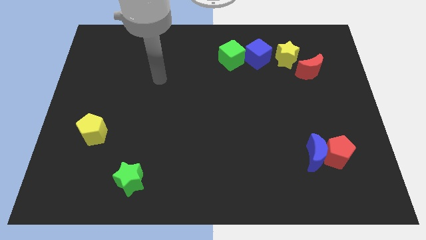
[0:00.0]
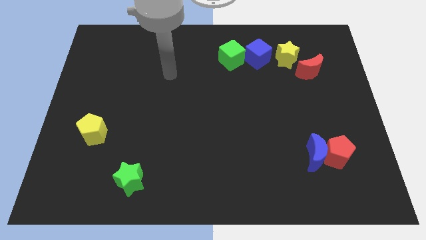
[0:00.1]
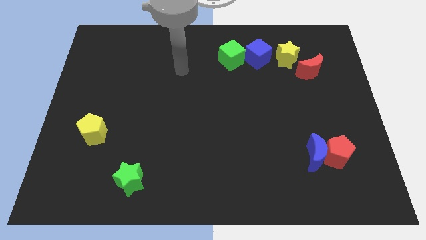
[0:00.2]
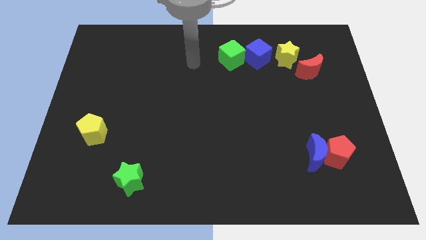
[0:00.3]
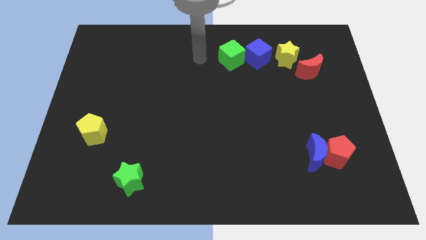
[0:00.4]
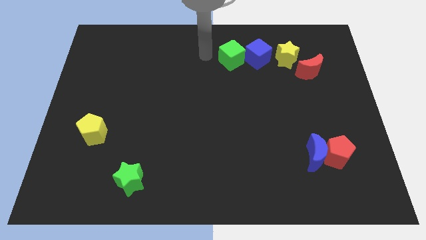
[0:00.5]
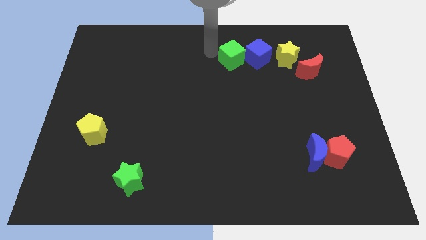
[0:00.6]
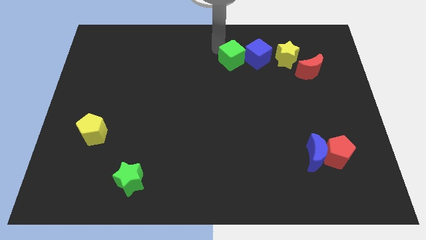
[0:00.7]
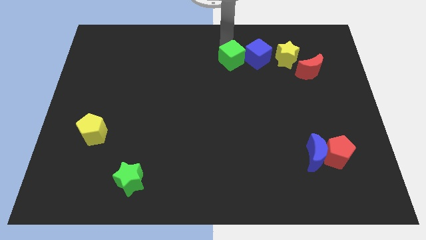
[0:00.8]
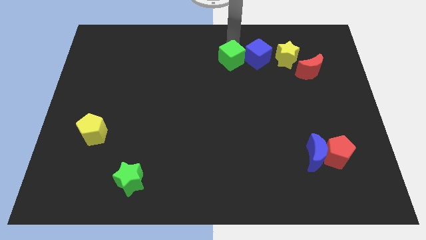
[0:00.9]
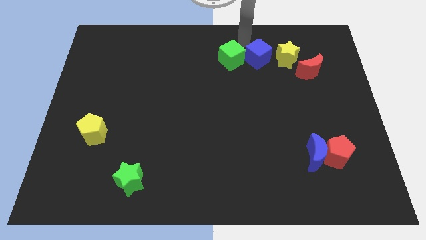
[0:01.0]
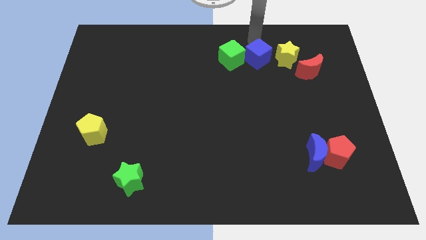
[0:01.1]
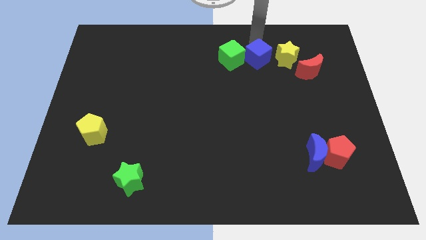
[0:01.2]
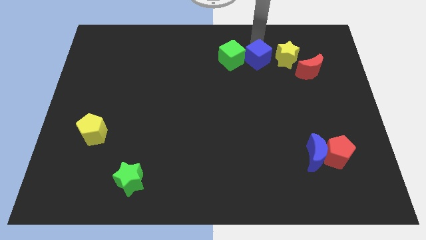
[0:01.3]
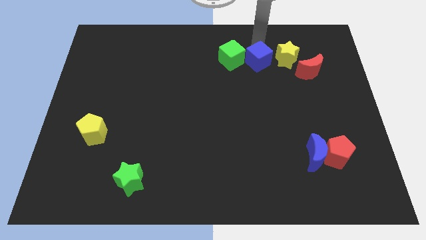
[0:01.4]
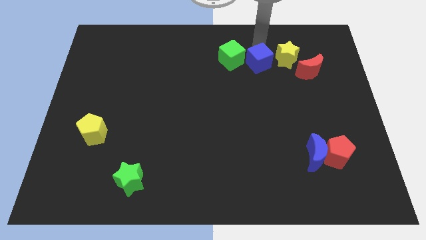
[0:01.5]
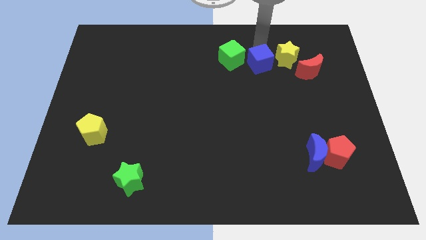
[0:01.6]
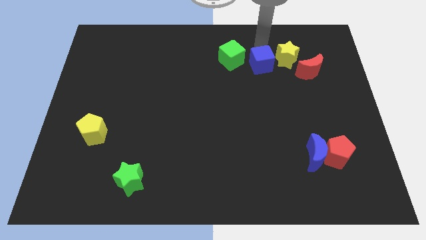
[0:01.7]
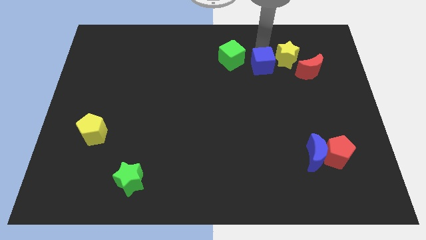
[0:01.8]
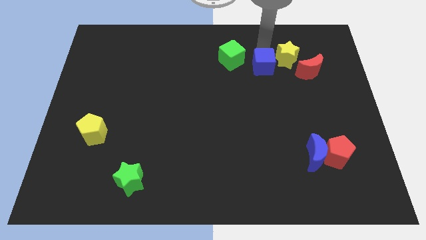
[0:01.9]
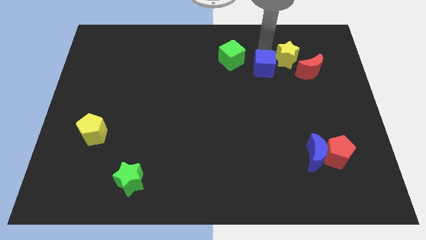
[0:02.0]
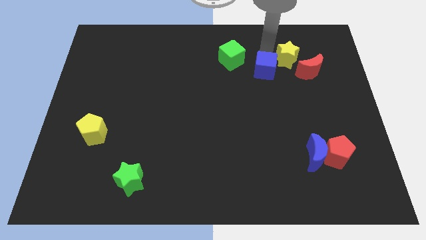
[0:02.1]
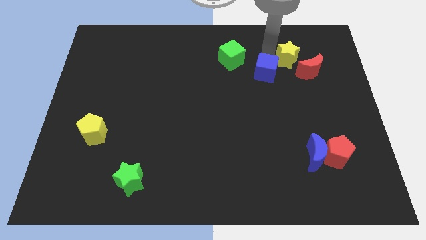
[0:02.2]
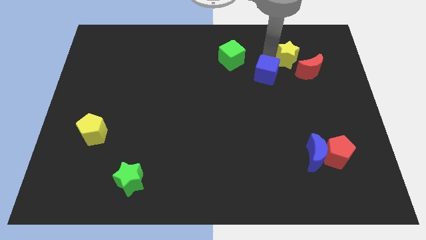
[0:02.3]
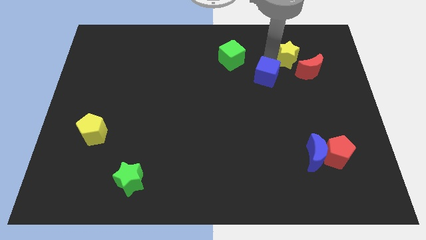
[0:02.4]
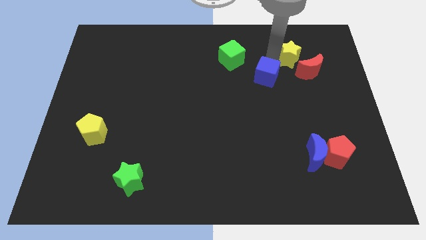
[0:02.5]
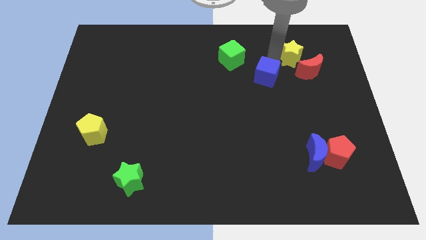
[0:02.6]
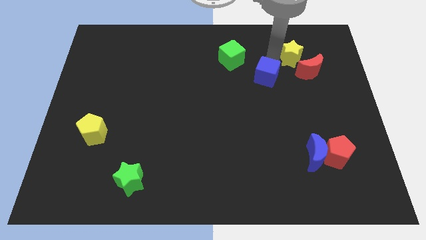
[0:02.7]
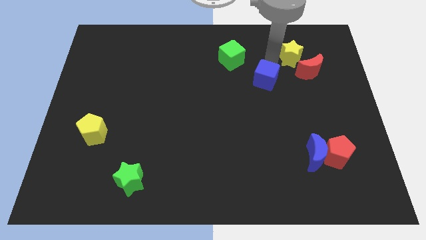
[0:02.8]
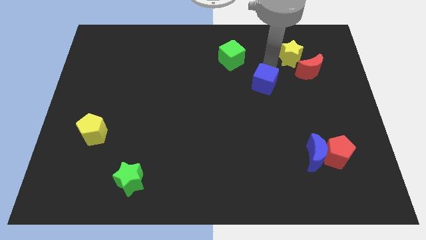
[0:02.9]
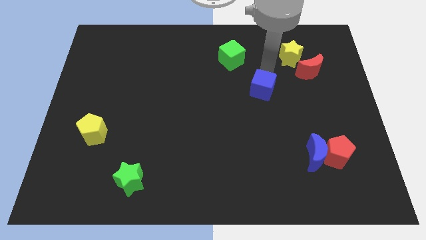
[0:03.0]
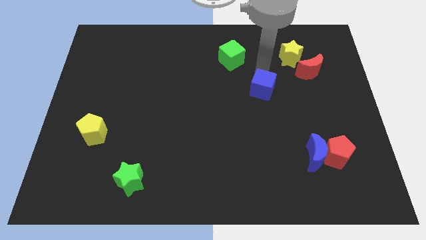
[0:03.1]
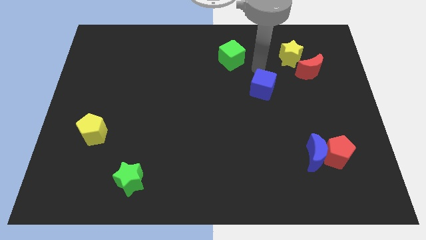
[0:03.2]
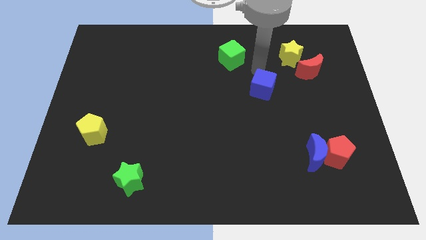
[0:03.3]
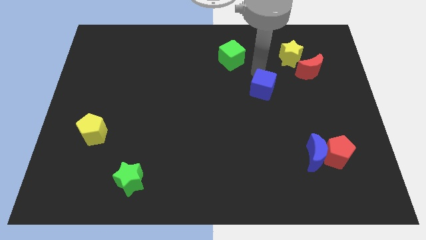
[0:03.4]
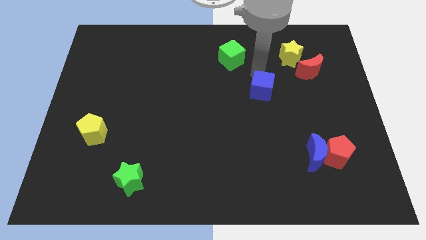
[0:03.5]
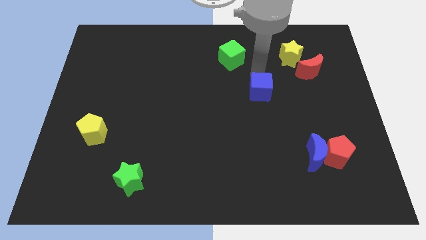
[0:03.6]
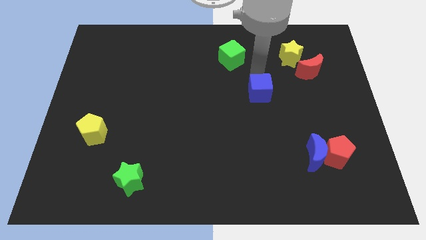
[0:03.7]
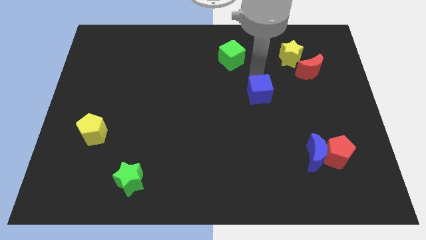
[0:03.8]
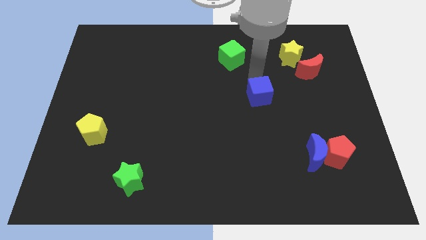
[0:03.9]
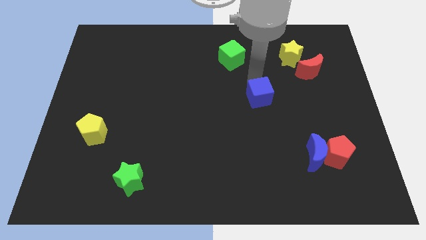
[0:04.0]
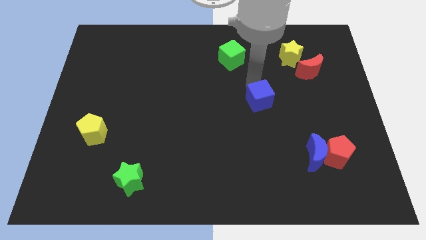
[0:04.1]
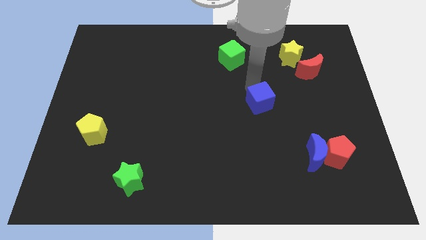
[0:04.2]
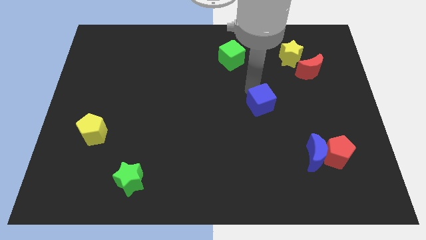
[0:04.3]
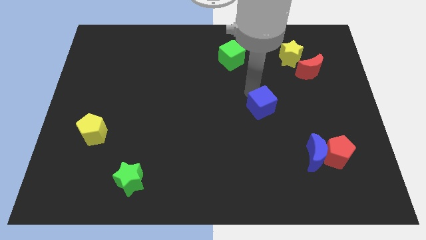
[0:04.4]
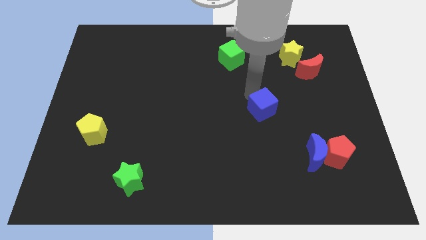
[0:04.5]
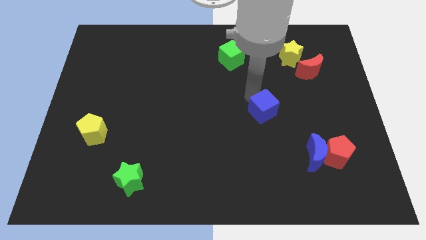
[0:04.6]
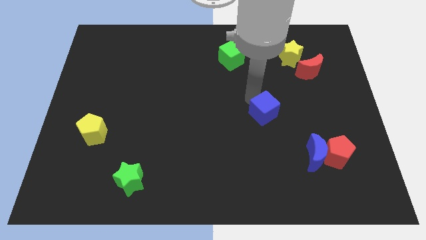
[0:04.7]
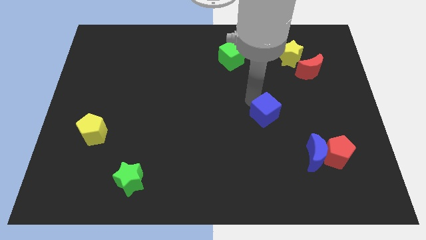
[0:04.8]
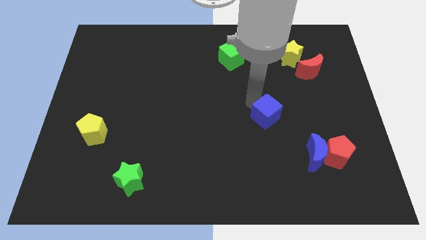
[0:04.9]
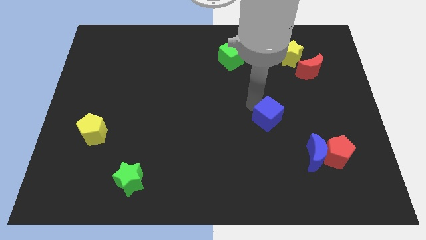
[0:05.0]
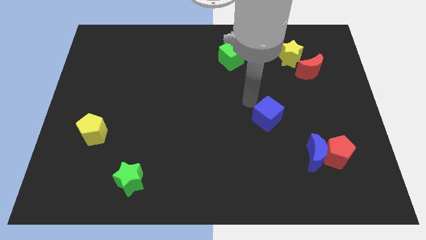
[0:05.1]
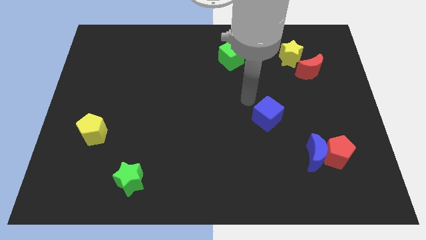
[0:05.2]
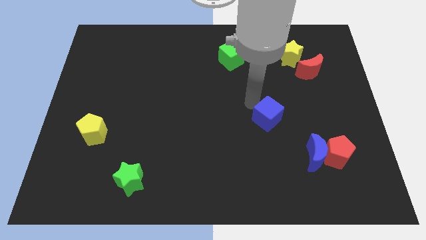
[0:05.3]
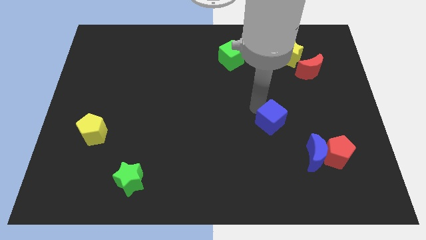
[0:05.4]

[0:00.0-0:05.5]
push the blue cube diagonally up and to the left of the blue moon
